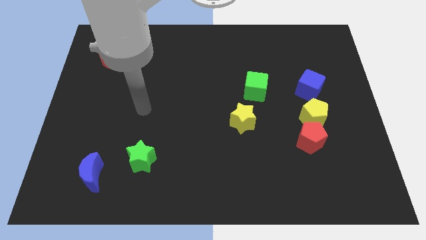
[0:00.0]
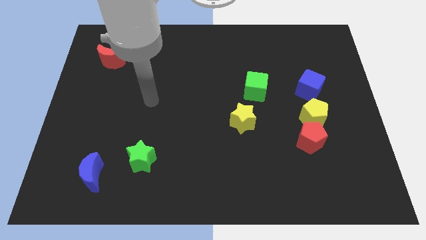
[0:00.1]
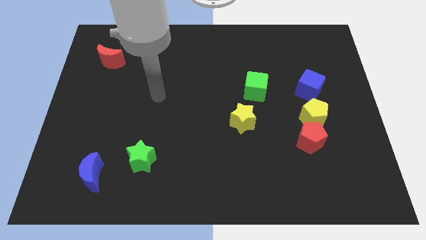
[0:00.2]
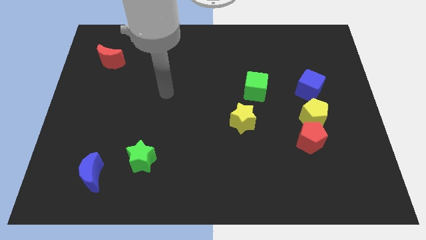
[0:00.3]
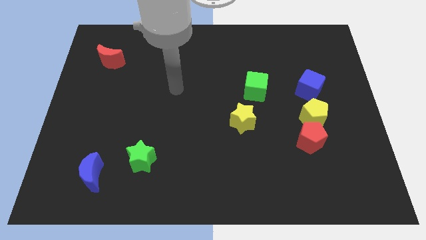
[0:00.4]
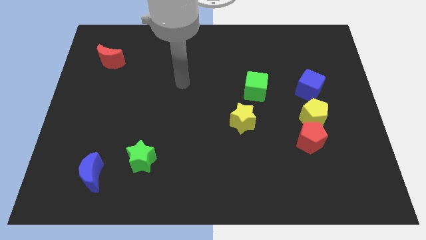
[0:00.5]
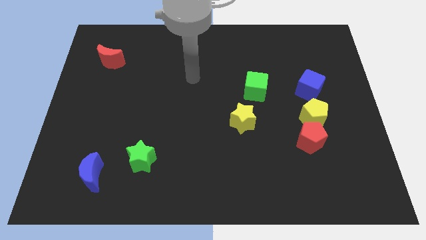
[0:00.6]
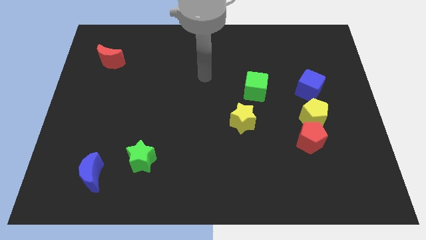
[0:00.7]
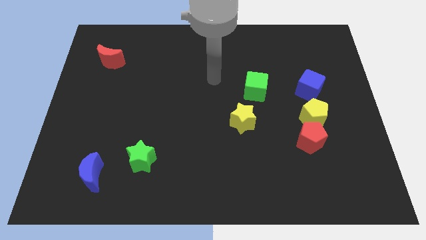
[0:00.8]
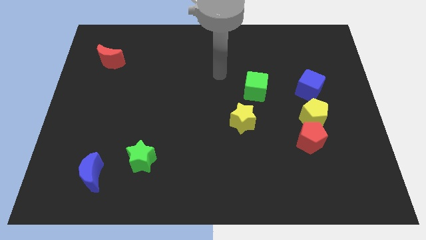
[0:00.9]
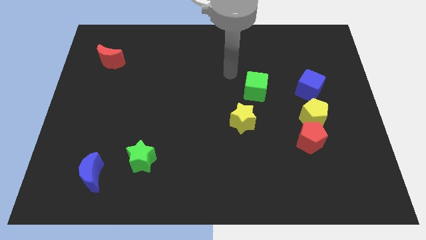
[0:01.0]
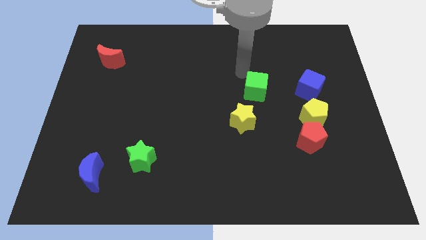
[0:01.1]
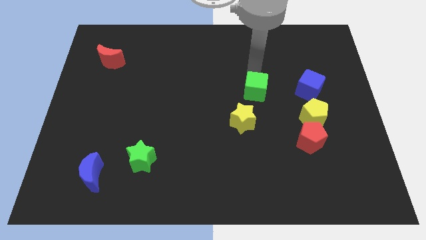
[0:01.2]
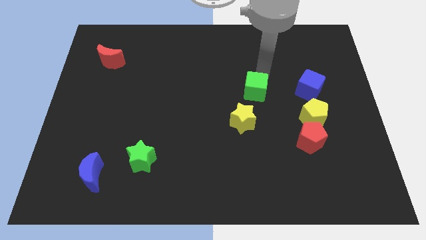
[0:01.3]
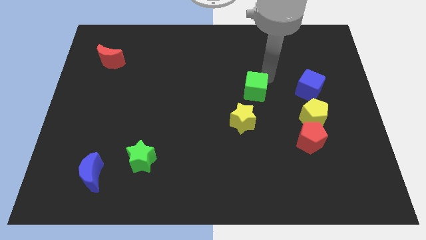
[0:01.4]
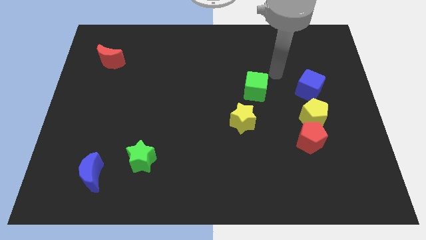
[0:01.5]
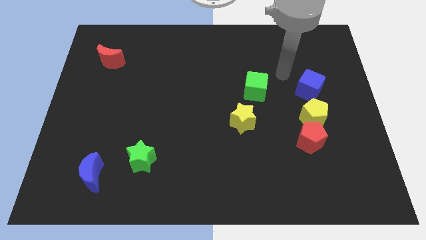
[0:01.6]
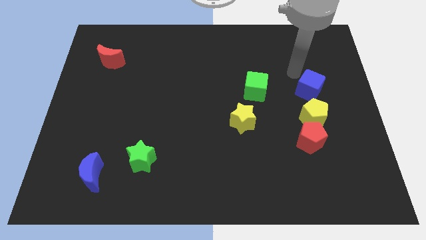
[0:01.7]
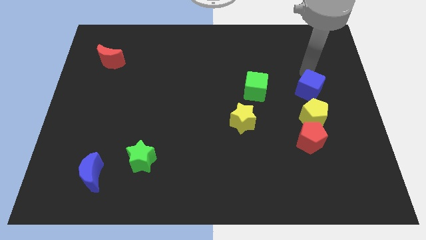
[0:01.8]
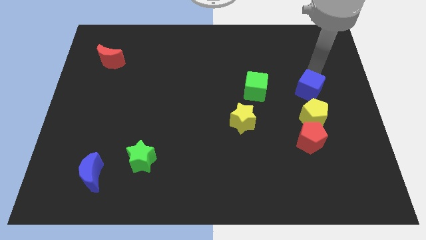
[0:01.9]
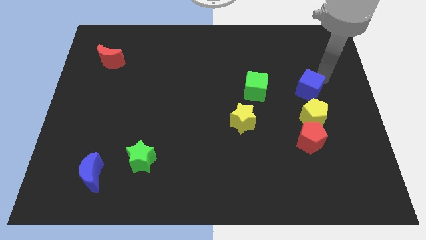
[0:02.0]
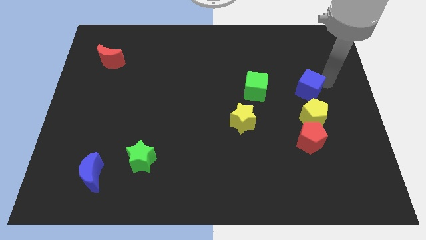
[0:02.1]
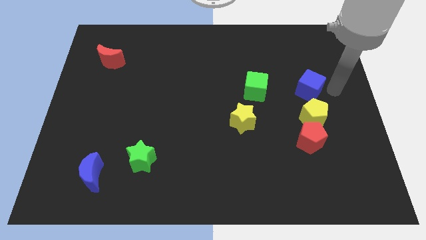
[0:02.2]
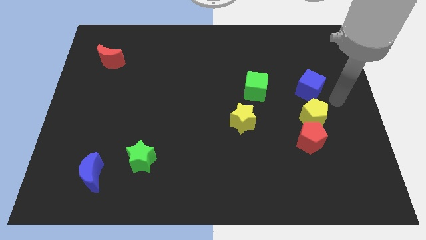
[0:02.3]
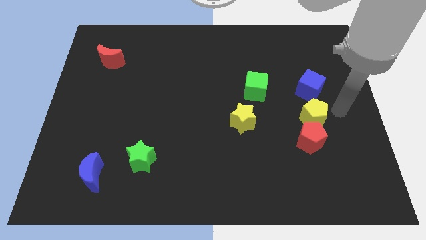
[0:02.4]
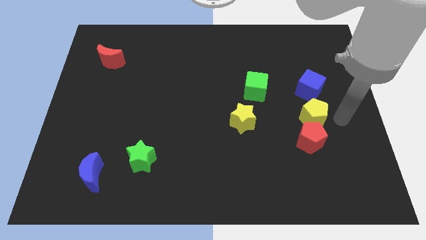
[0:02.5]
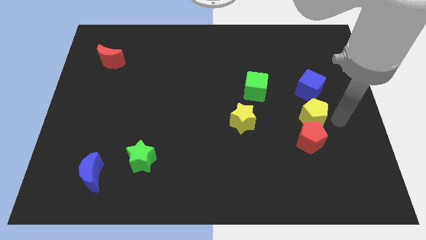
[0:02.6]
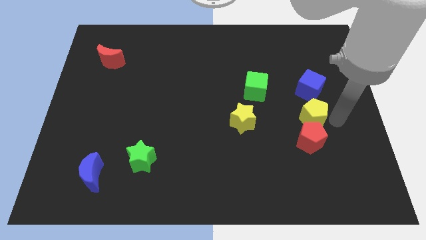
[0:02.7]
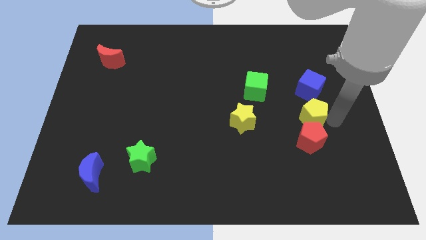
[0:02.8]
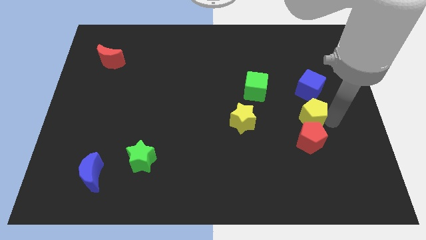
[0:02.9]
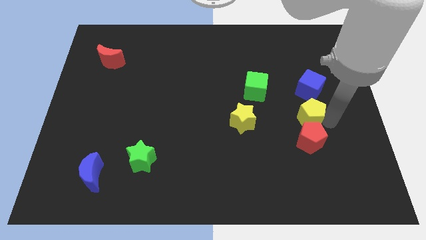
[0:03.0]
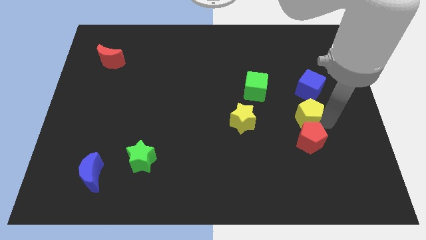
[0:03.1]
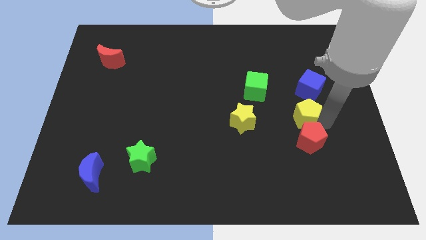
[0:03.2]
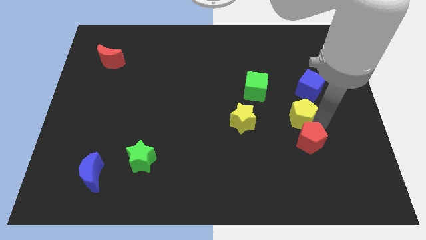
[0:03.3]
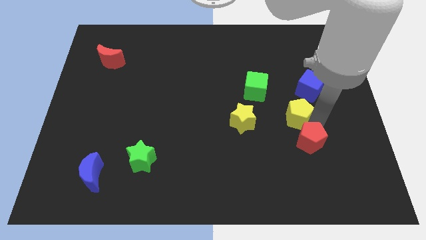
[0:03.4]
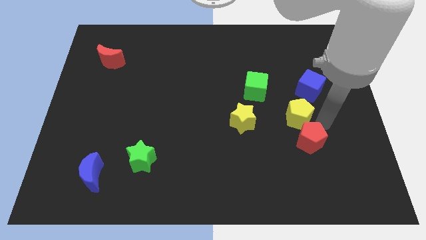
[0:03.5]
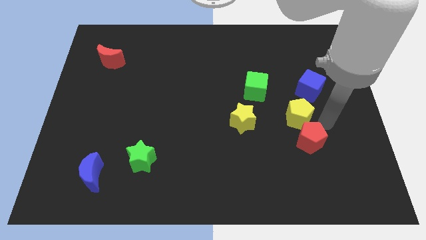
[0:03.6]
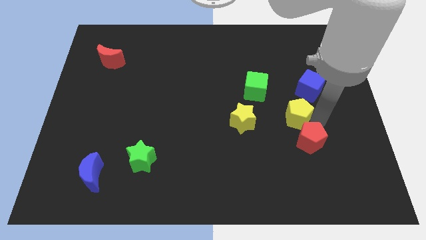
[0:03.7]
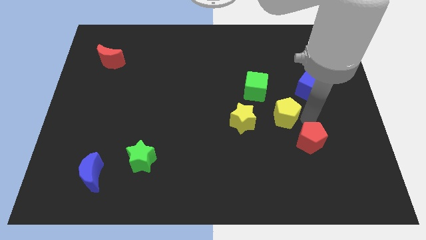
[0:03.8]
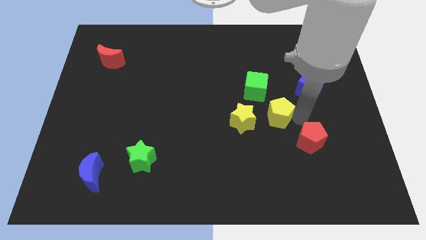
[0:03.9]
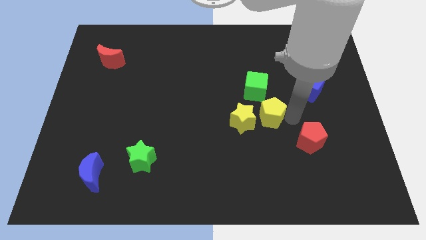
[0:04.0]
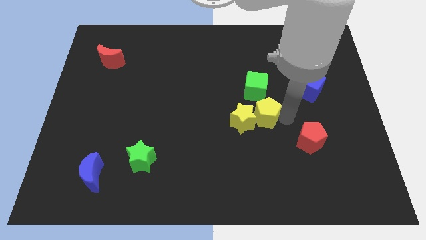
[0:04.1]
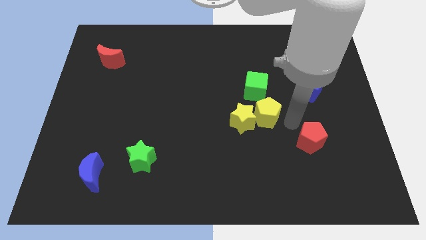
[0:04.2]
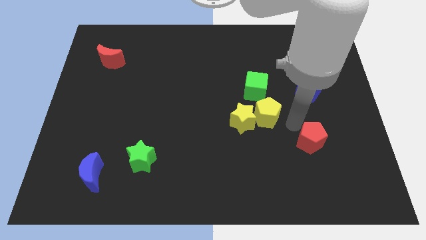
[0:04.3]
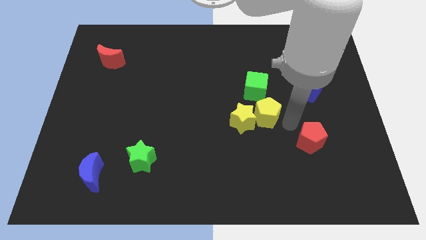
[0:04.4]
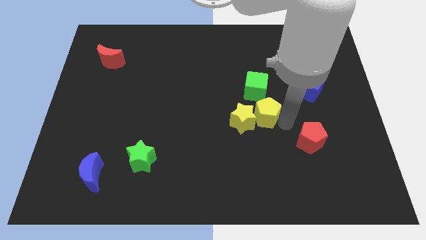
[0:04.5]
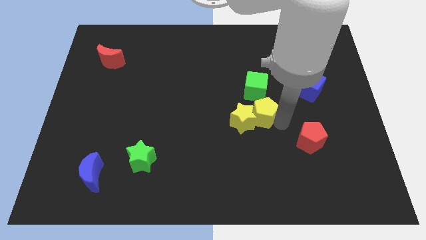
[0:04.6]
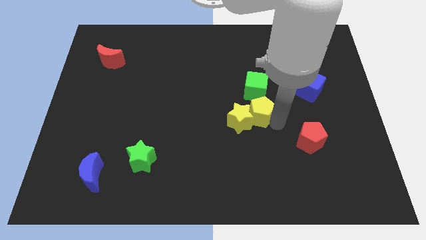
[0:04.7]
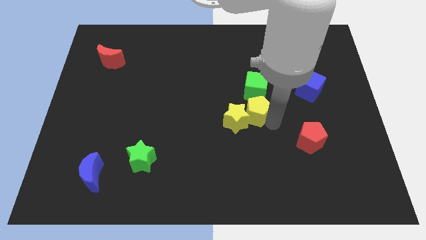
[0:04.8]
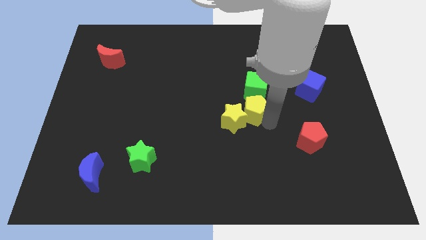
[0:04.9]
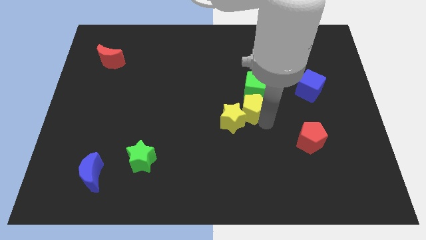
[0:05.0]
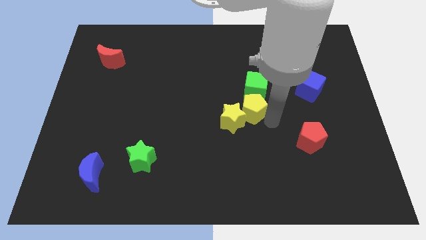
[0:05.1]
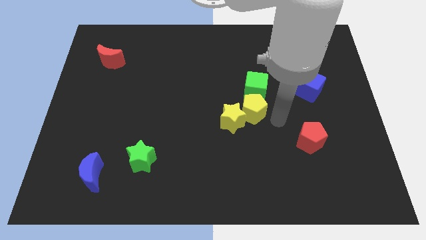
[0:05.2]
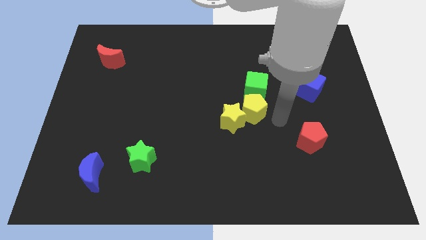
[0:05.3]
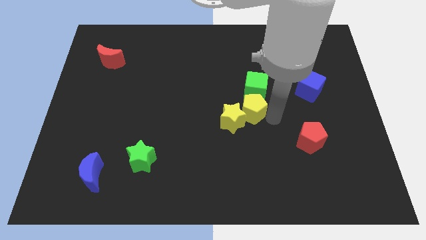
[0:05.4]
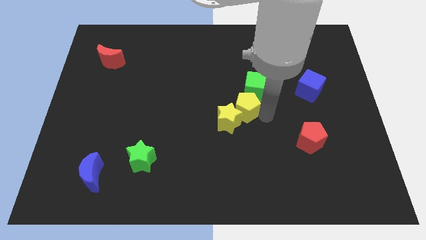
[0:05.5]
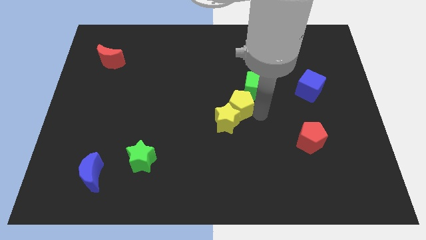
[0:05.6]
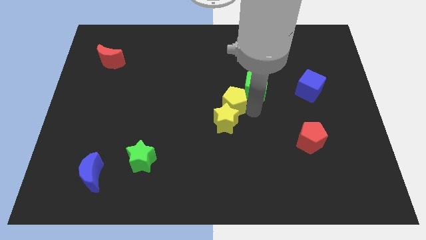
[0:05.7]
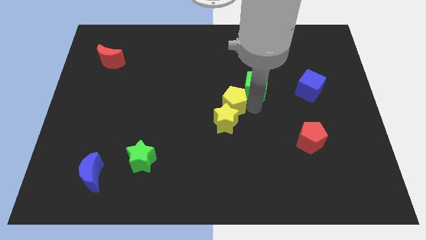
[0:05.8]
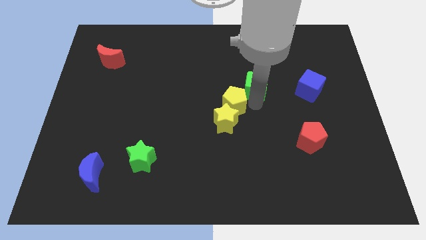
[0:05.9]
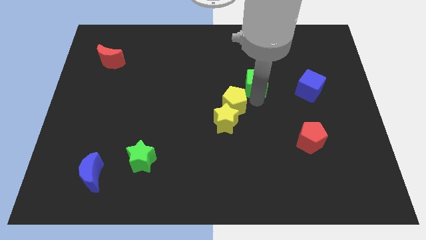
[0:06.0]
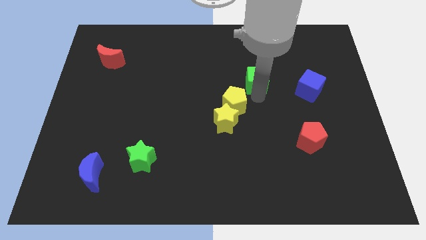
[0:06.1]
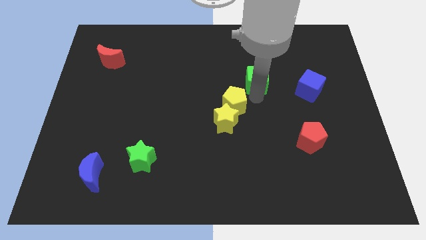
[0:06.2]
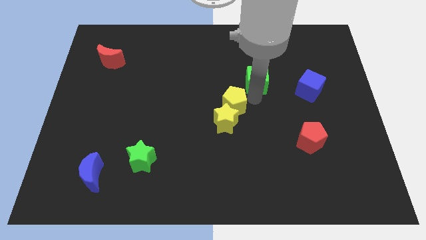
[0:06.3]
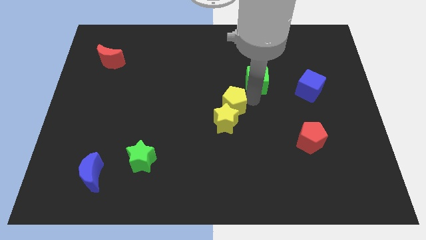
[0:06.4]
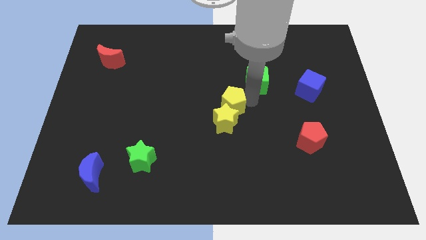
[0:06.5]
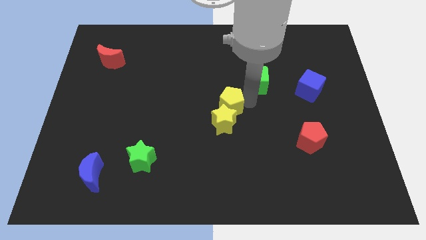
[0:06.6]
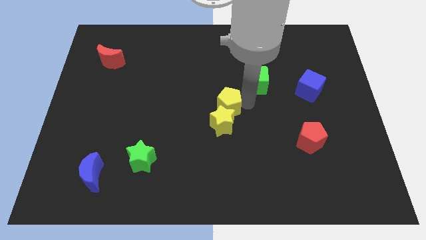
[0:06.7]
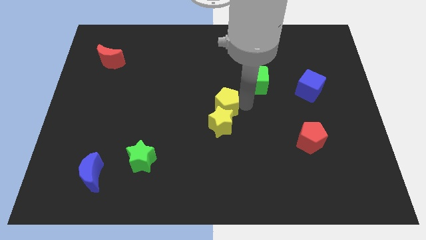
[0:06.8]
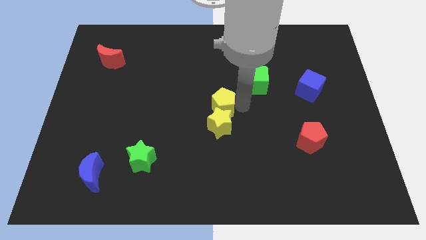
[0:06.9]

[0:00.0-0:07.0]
move the yellow pentagon left

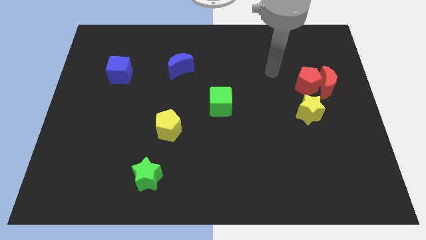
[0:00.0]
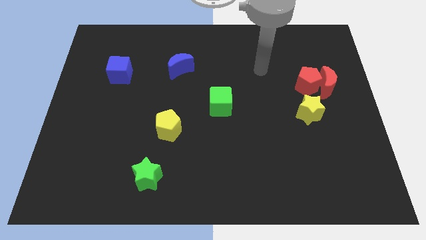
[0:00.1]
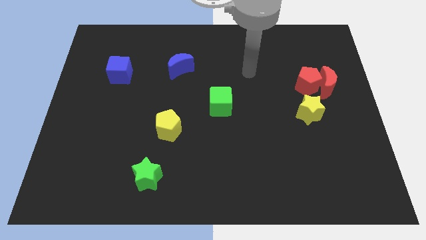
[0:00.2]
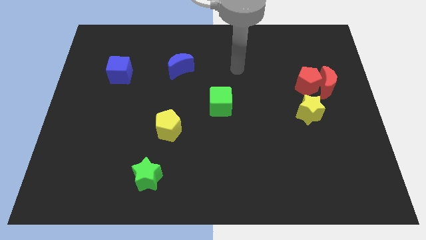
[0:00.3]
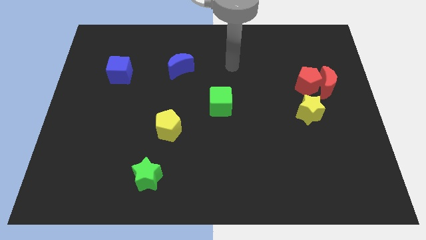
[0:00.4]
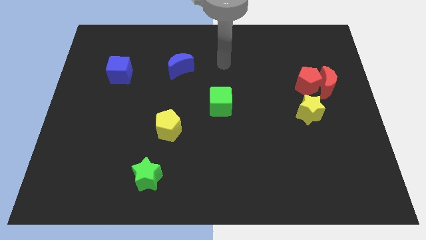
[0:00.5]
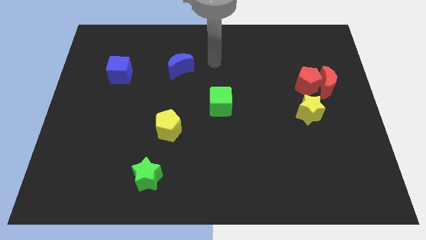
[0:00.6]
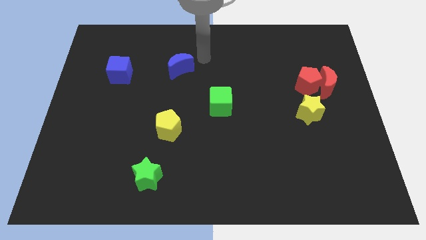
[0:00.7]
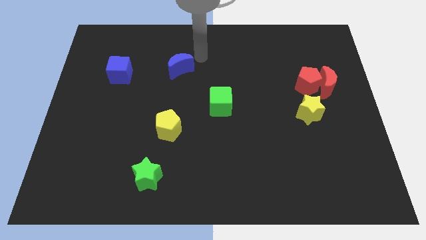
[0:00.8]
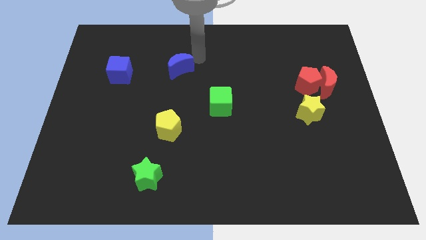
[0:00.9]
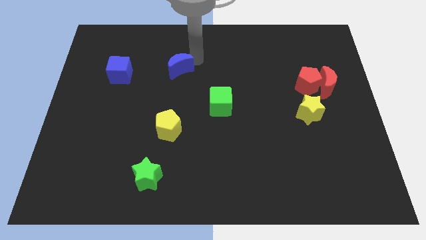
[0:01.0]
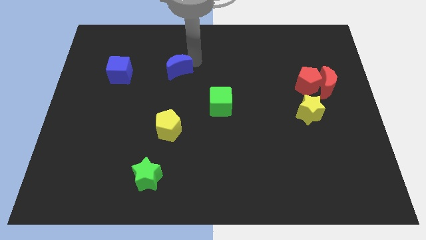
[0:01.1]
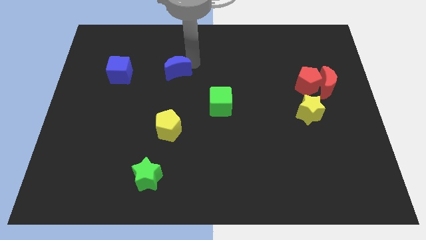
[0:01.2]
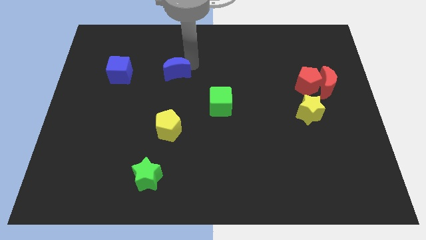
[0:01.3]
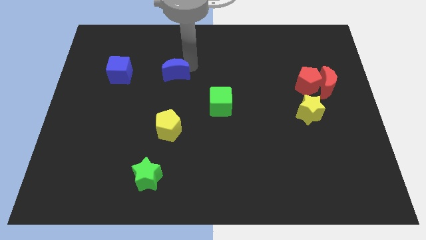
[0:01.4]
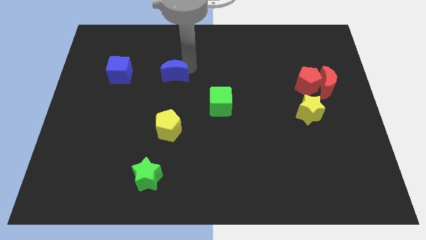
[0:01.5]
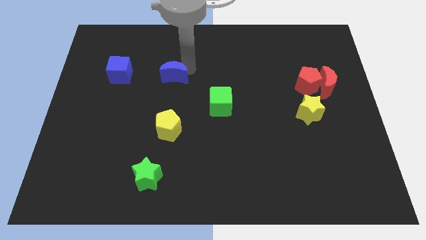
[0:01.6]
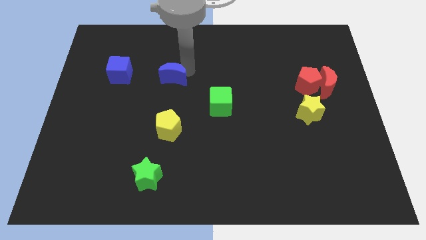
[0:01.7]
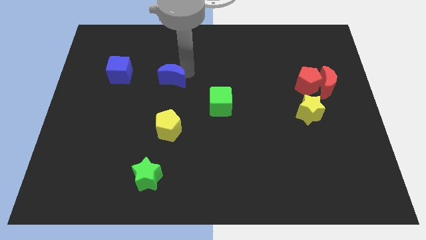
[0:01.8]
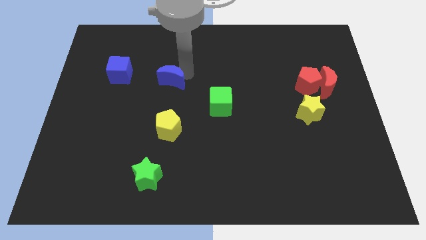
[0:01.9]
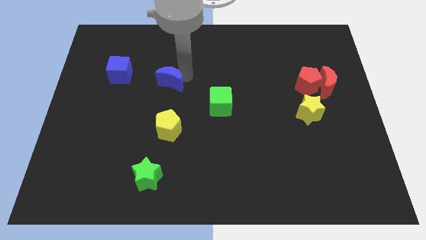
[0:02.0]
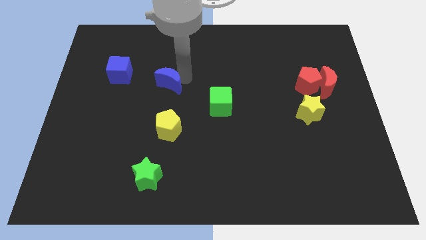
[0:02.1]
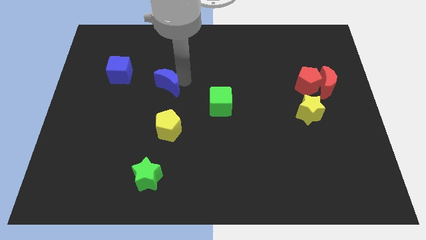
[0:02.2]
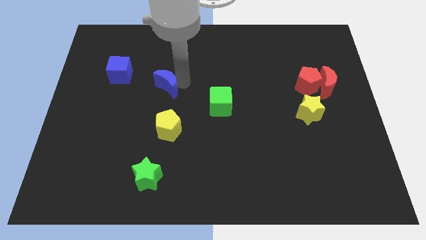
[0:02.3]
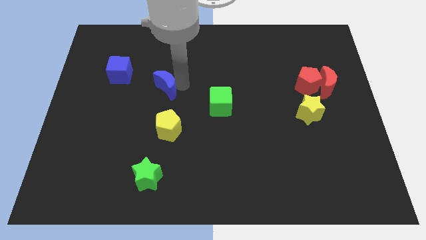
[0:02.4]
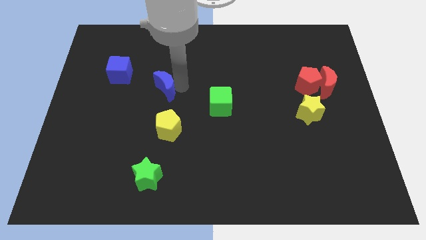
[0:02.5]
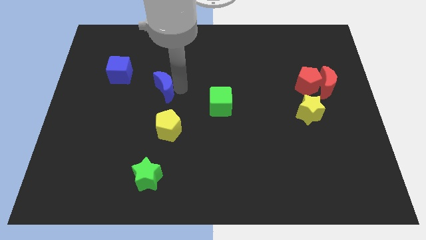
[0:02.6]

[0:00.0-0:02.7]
slightly push the blue moon downwards and to the left diagonally
